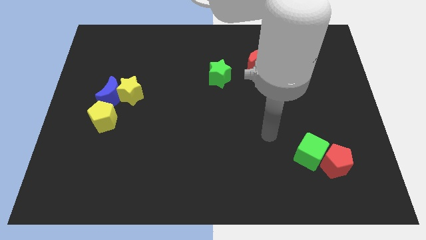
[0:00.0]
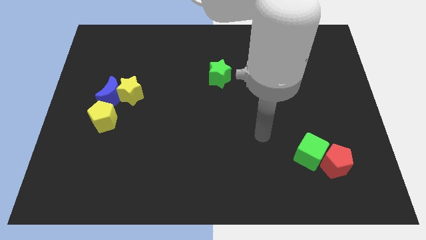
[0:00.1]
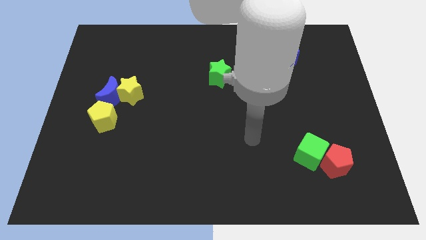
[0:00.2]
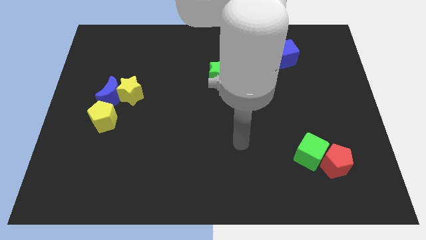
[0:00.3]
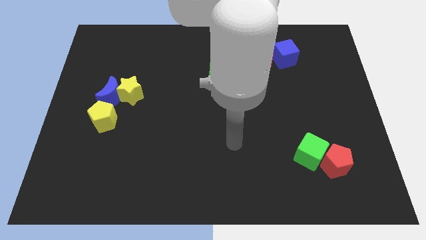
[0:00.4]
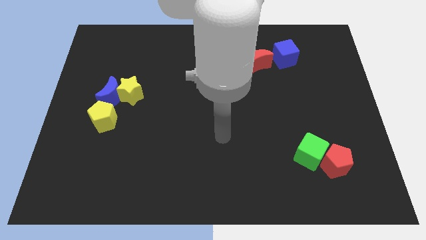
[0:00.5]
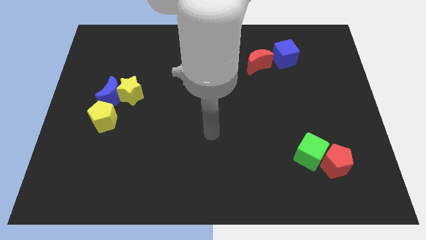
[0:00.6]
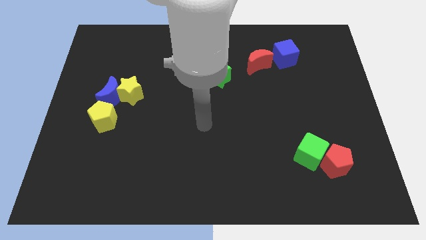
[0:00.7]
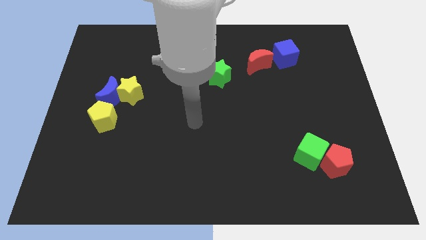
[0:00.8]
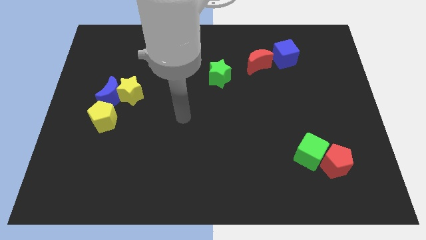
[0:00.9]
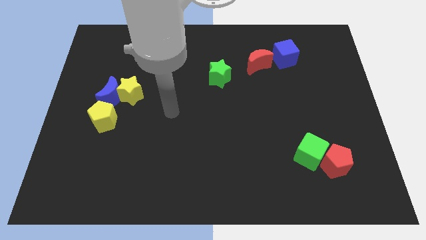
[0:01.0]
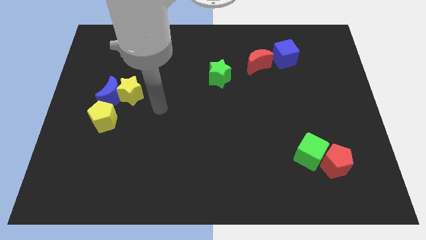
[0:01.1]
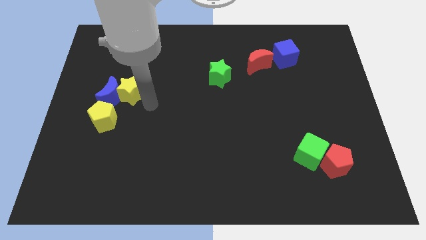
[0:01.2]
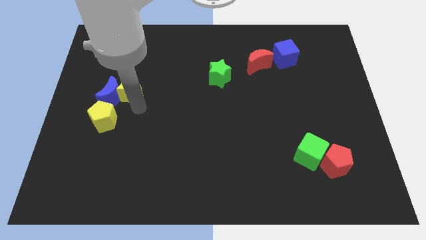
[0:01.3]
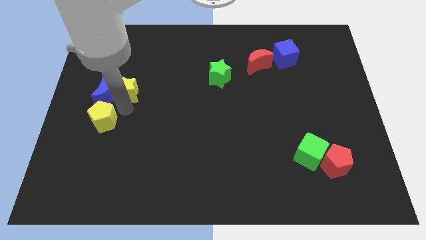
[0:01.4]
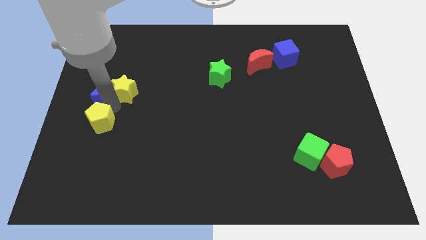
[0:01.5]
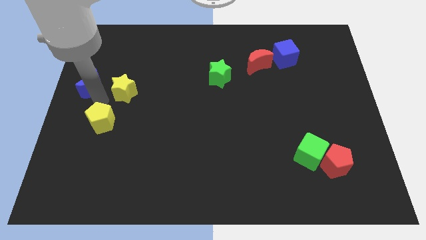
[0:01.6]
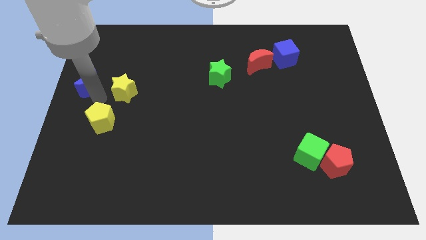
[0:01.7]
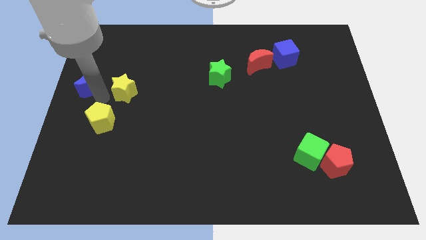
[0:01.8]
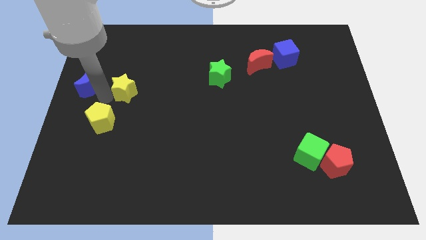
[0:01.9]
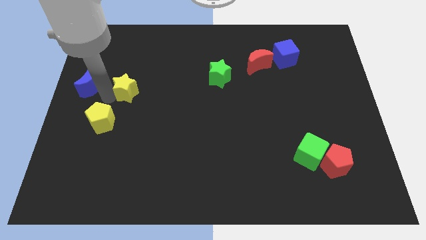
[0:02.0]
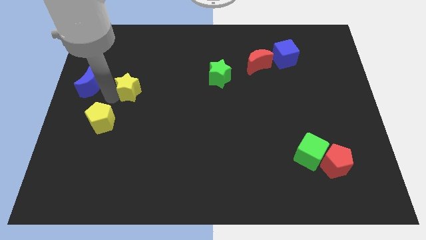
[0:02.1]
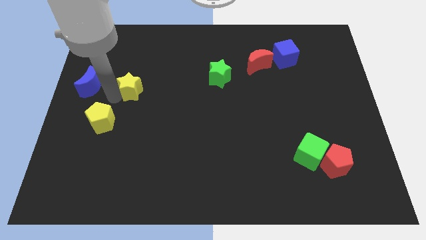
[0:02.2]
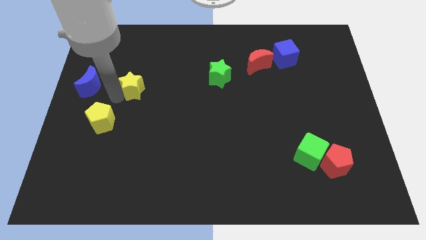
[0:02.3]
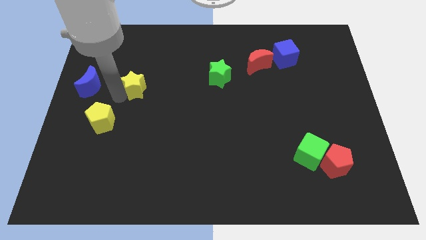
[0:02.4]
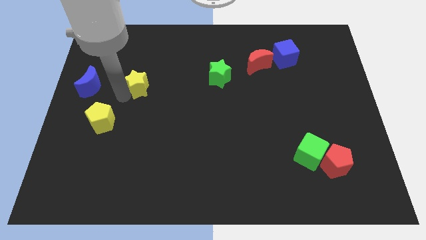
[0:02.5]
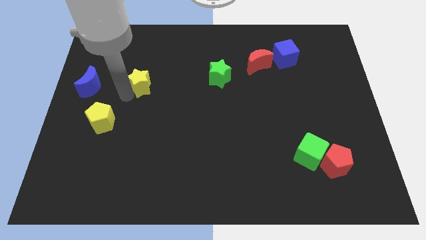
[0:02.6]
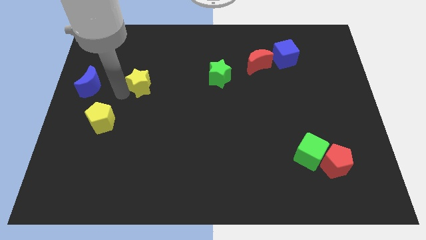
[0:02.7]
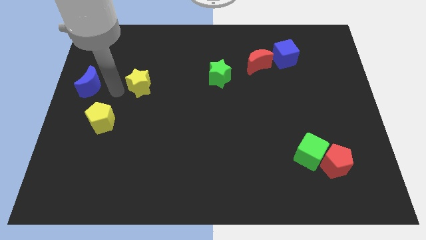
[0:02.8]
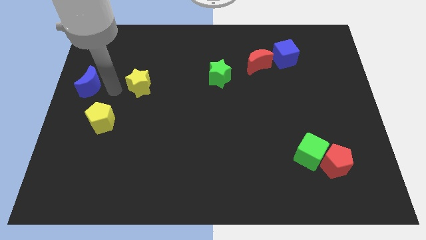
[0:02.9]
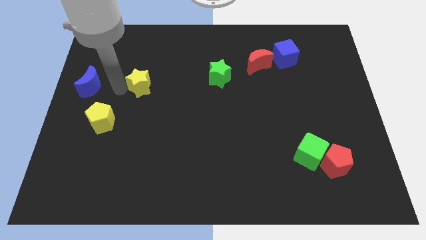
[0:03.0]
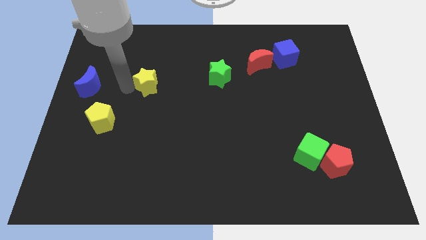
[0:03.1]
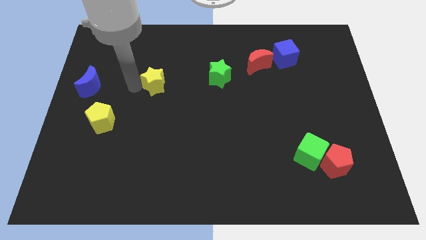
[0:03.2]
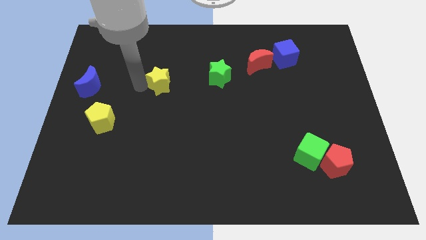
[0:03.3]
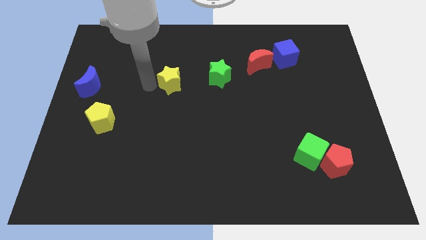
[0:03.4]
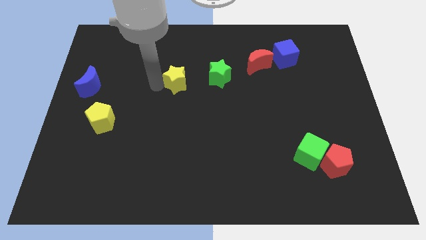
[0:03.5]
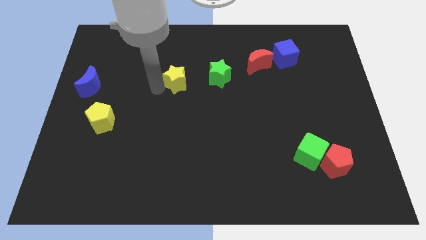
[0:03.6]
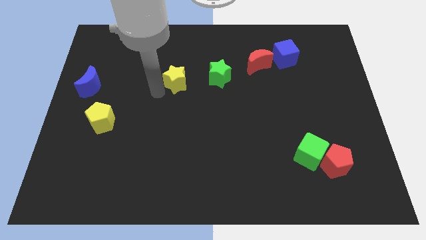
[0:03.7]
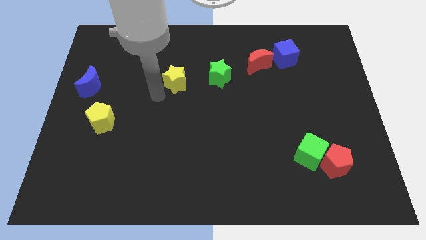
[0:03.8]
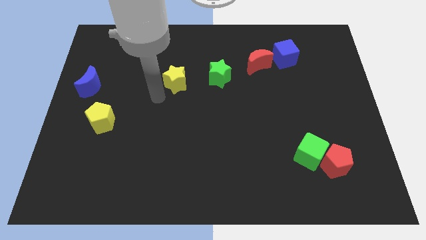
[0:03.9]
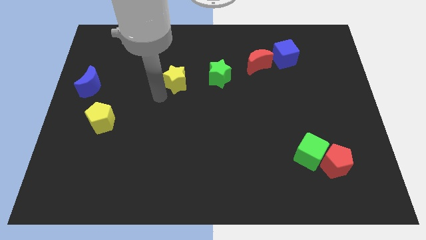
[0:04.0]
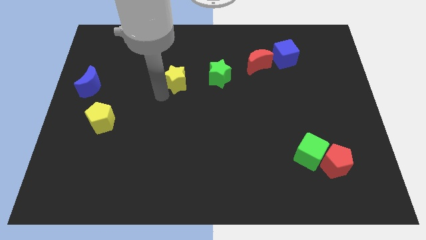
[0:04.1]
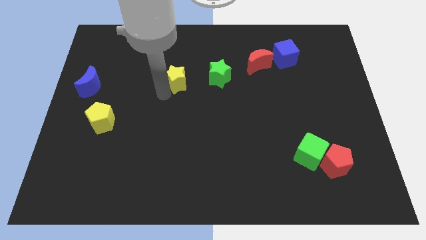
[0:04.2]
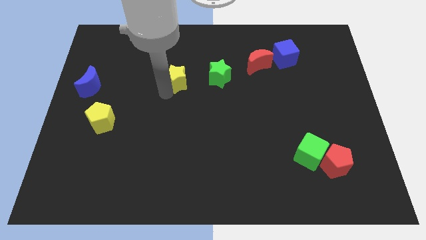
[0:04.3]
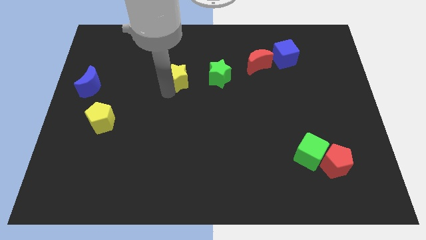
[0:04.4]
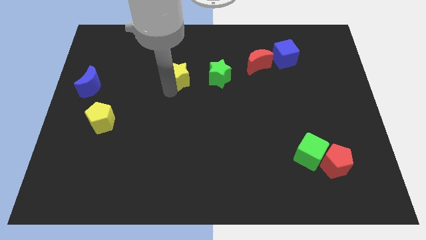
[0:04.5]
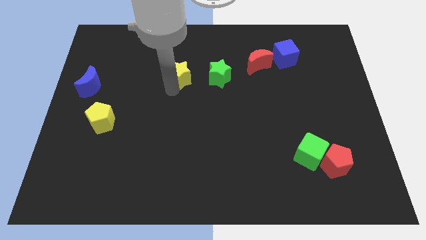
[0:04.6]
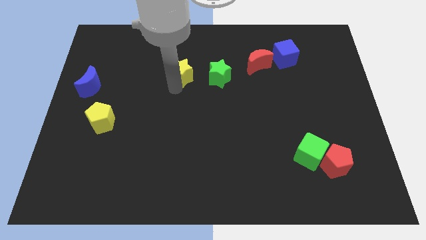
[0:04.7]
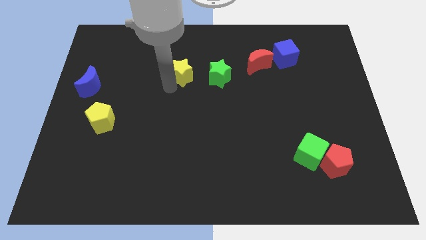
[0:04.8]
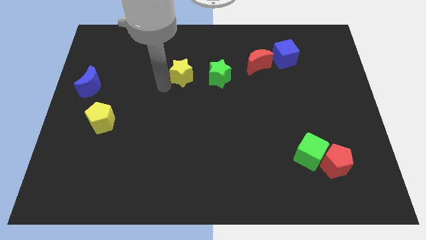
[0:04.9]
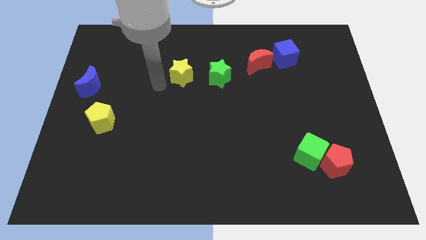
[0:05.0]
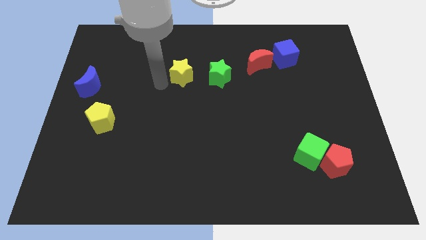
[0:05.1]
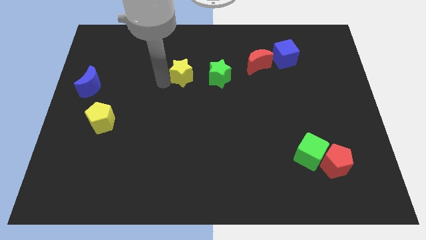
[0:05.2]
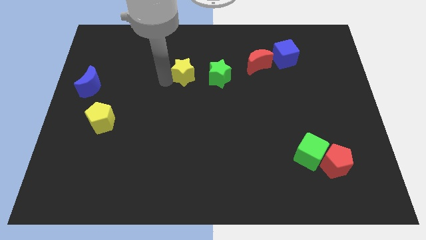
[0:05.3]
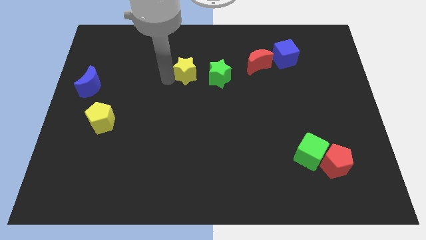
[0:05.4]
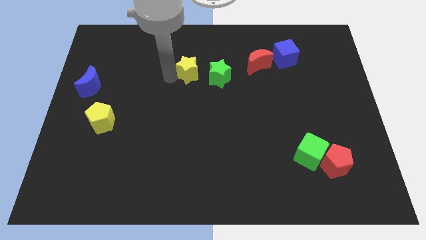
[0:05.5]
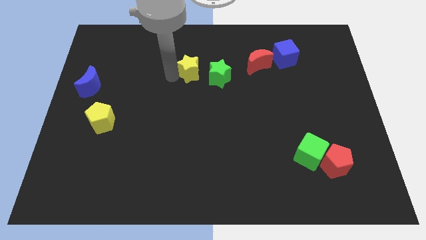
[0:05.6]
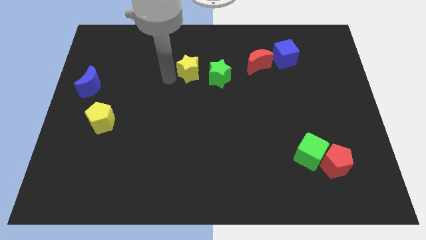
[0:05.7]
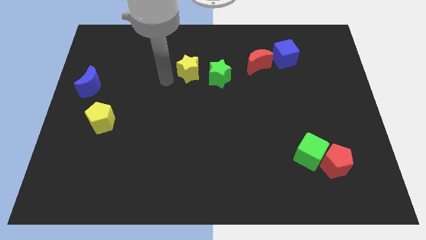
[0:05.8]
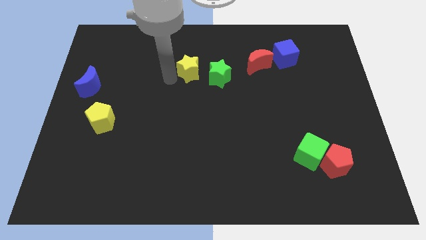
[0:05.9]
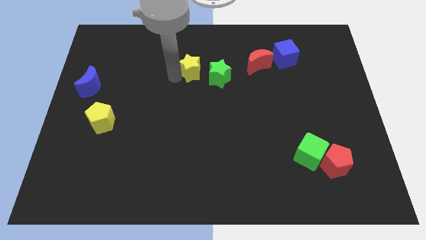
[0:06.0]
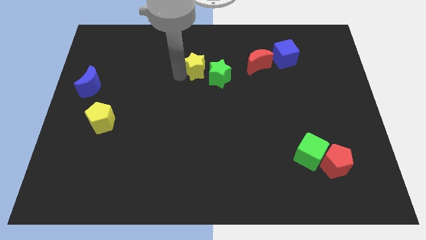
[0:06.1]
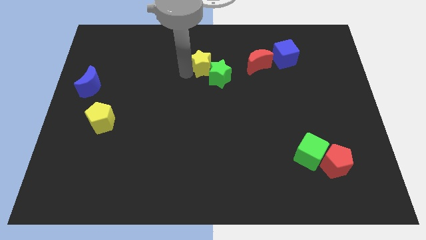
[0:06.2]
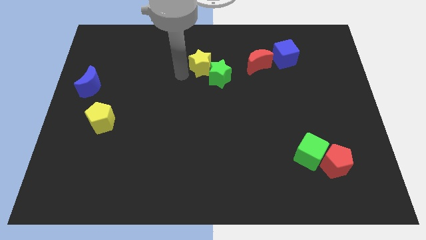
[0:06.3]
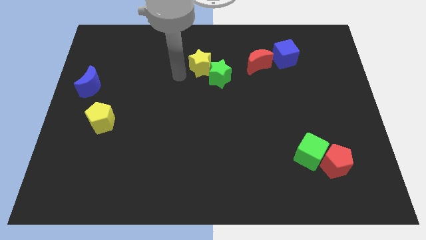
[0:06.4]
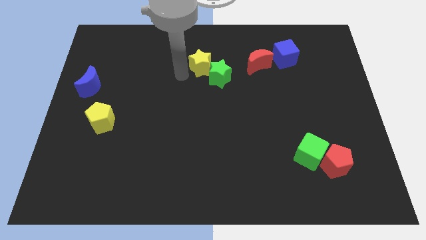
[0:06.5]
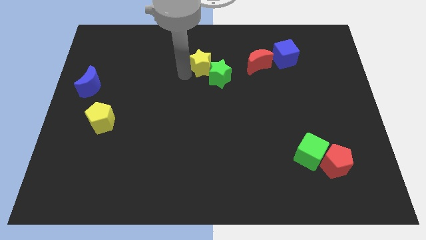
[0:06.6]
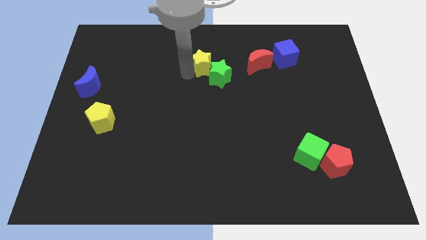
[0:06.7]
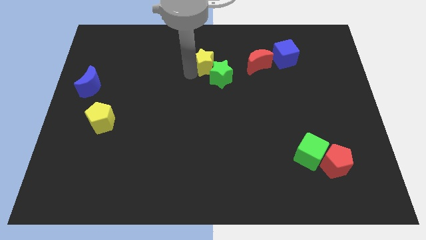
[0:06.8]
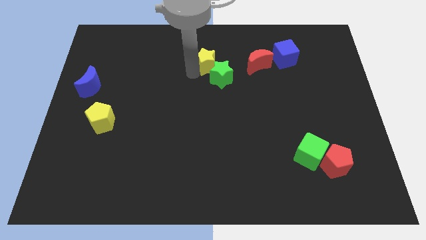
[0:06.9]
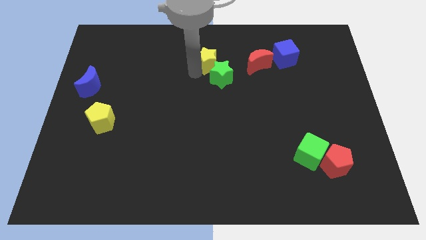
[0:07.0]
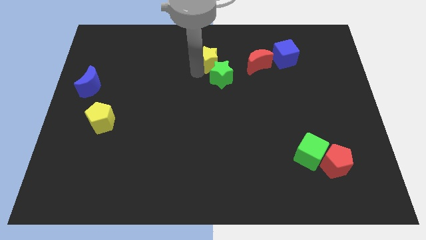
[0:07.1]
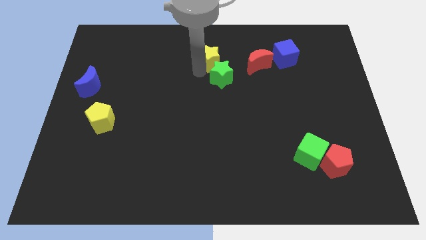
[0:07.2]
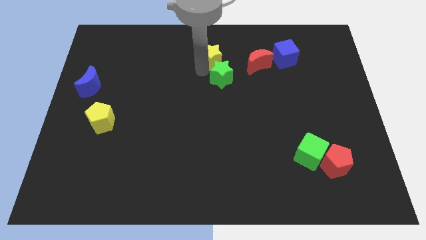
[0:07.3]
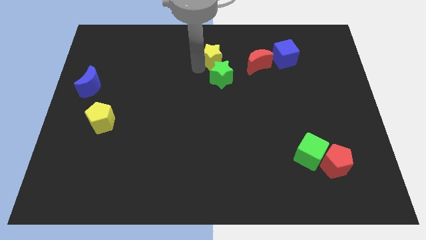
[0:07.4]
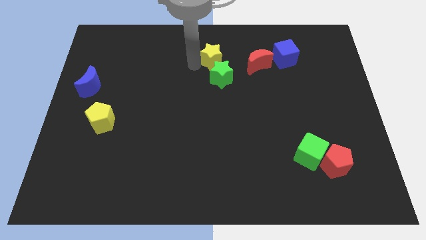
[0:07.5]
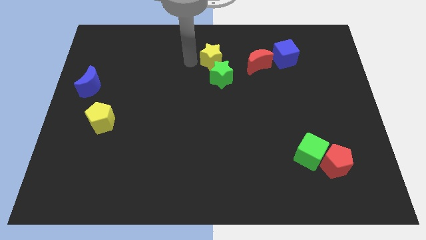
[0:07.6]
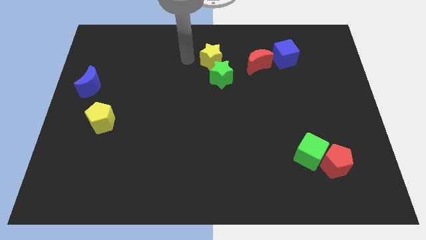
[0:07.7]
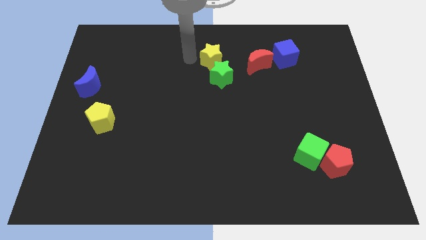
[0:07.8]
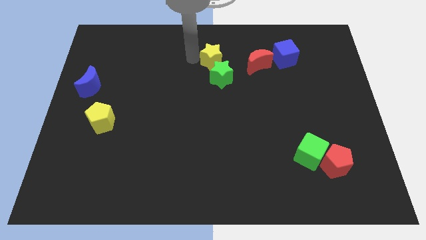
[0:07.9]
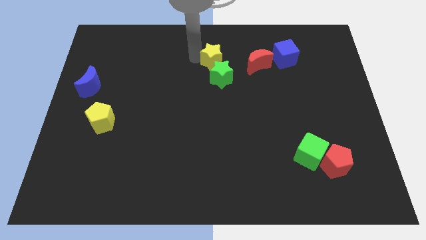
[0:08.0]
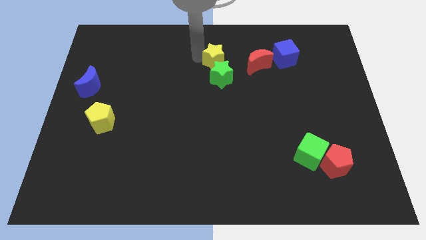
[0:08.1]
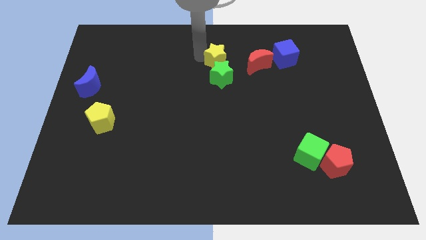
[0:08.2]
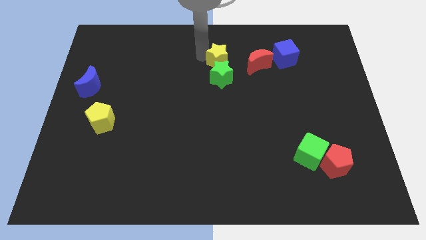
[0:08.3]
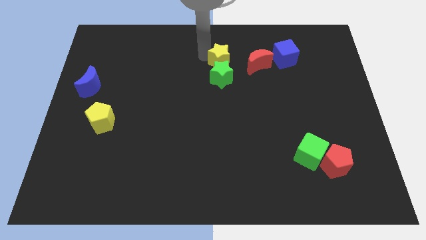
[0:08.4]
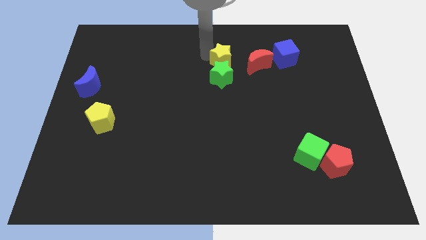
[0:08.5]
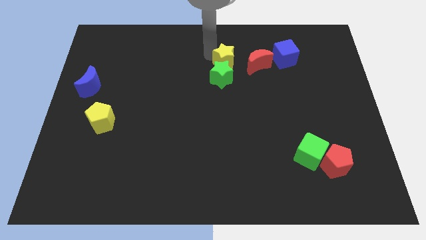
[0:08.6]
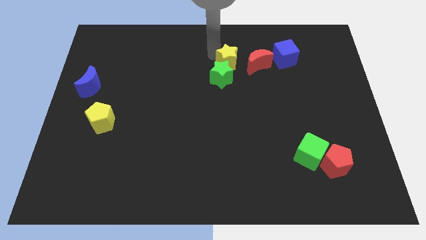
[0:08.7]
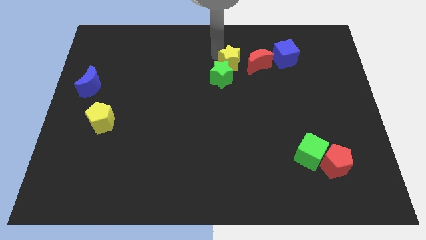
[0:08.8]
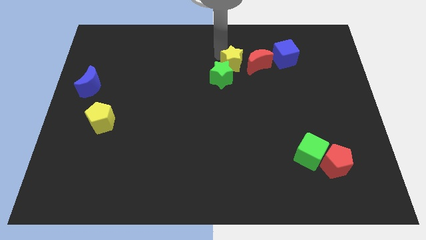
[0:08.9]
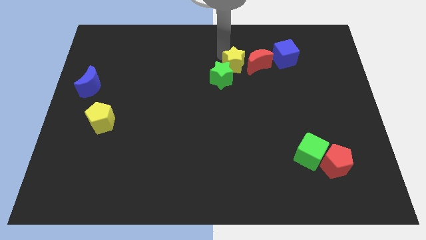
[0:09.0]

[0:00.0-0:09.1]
put the yellow star towards the red moon
